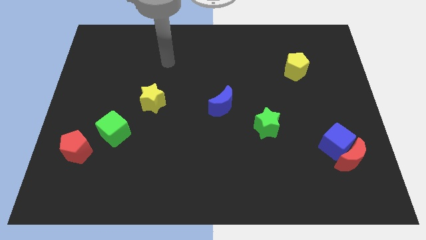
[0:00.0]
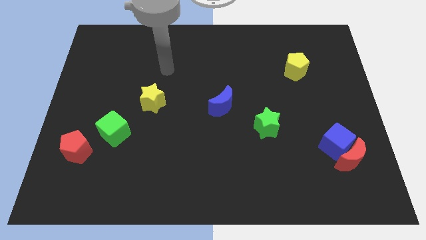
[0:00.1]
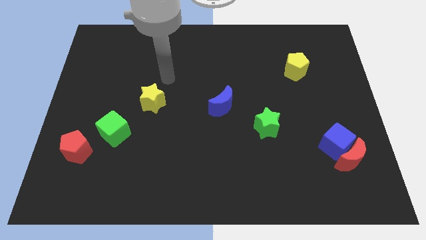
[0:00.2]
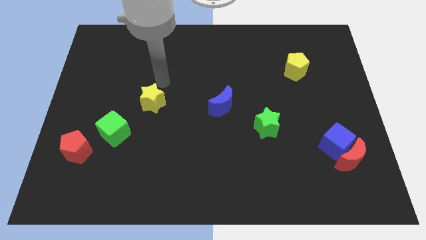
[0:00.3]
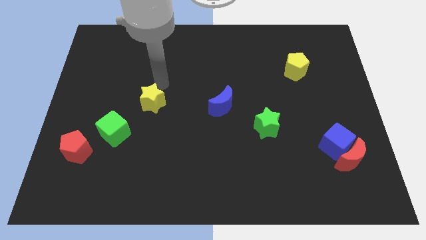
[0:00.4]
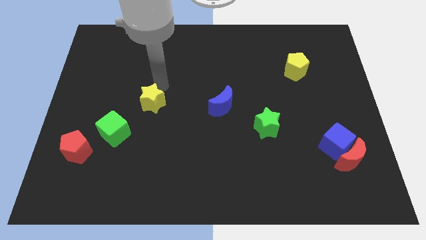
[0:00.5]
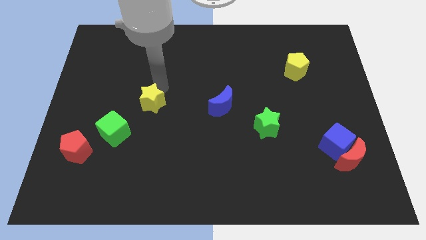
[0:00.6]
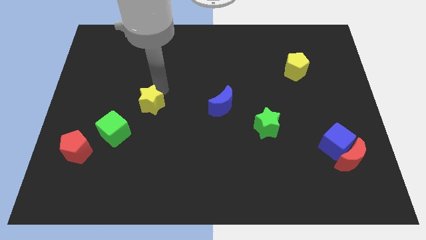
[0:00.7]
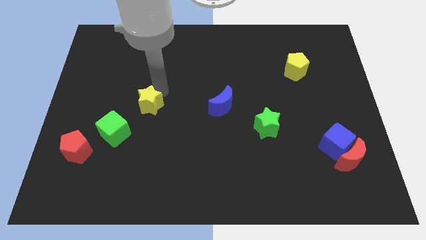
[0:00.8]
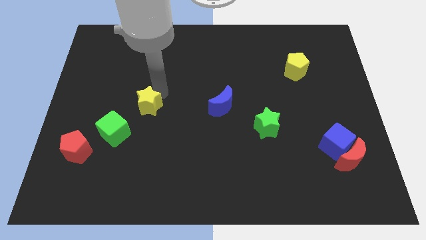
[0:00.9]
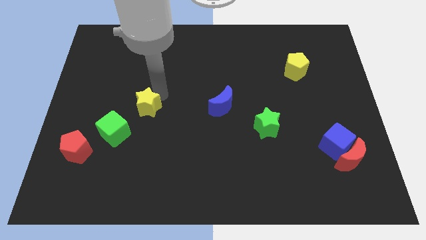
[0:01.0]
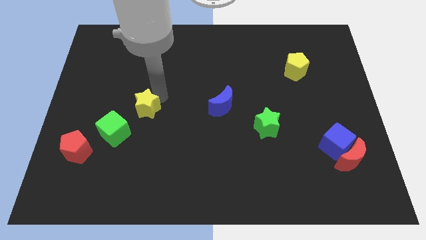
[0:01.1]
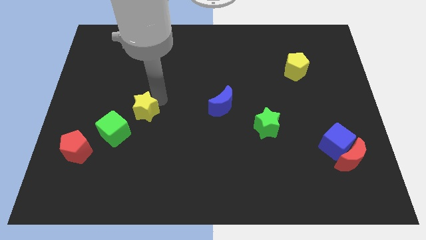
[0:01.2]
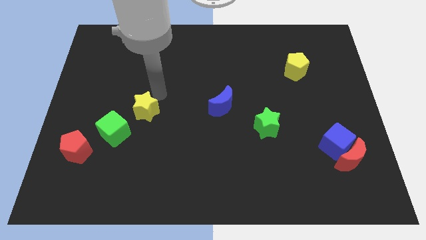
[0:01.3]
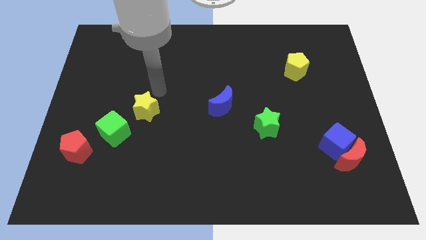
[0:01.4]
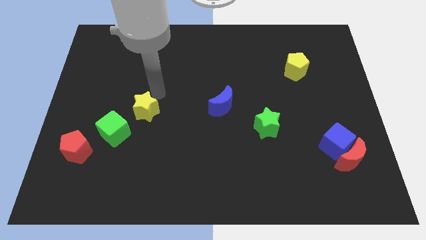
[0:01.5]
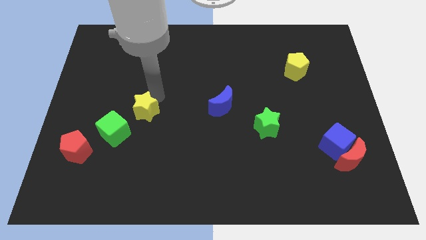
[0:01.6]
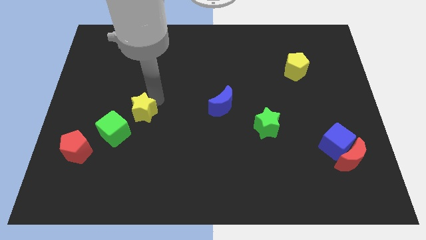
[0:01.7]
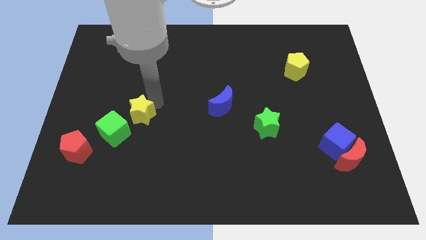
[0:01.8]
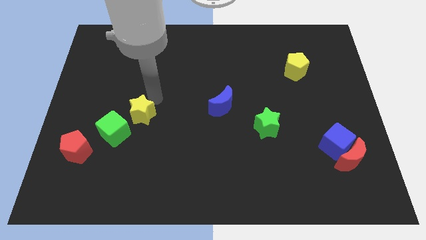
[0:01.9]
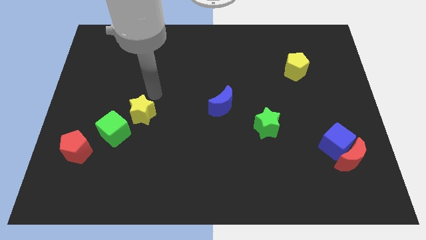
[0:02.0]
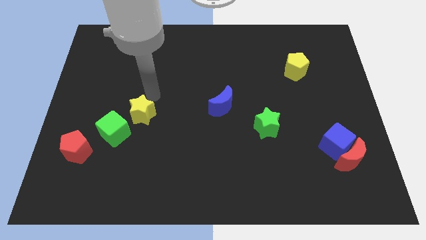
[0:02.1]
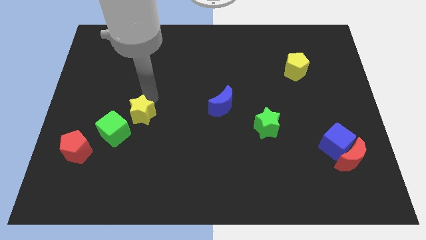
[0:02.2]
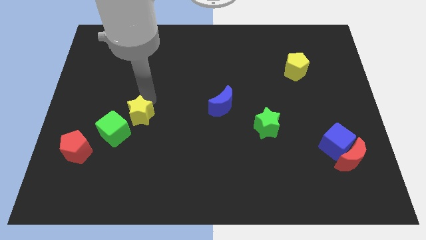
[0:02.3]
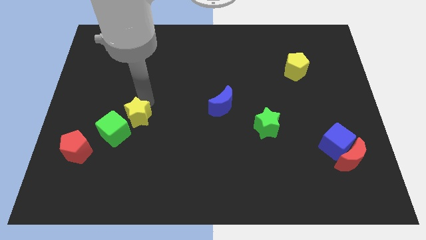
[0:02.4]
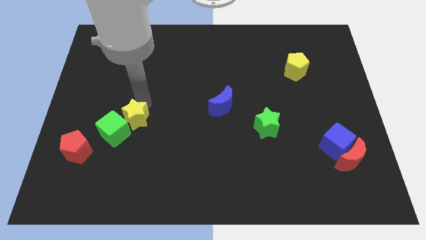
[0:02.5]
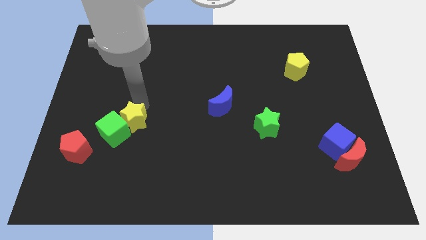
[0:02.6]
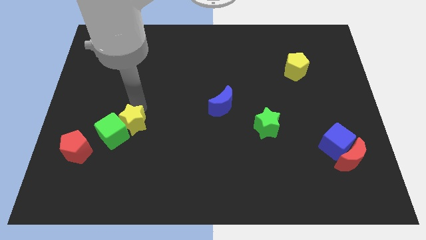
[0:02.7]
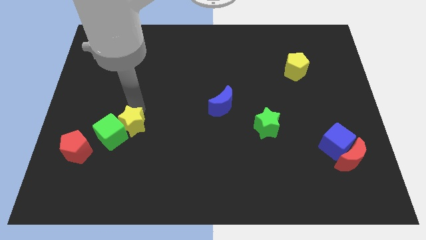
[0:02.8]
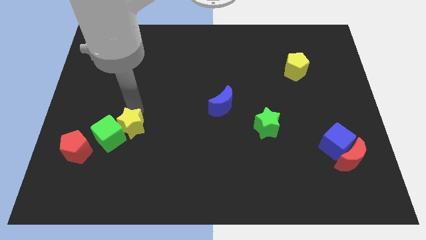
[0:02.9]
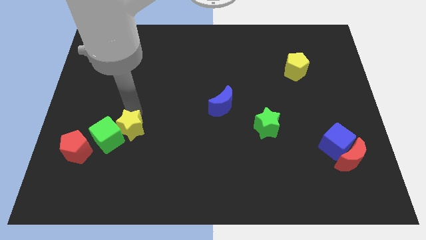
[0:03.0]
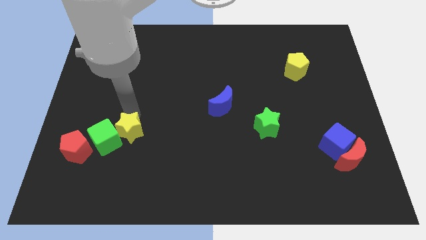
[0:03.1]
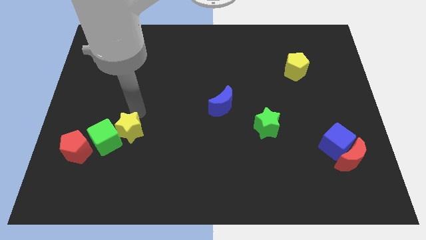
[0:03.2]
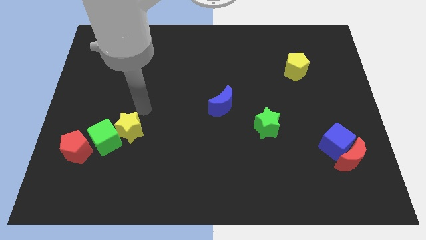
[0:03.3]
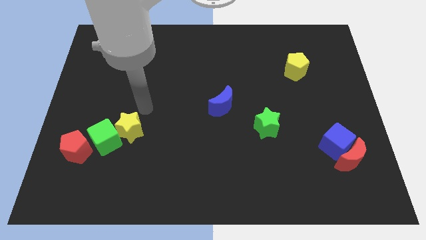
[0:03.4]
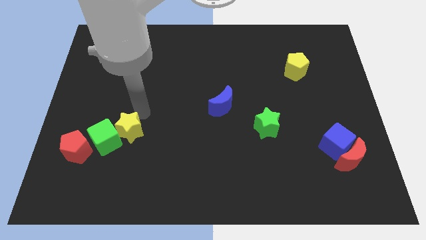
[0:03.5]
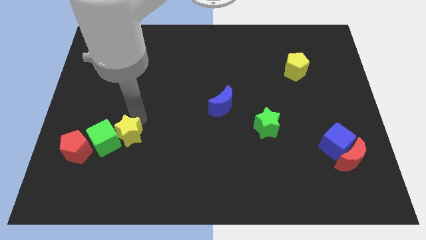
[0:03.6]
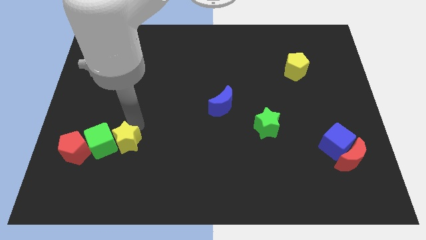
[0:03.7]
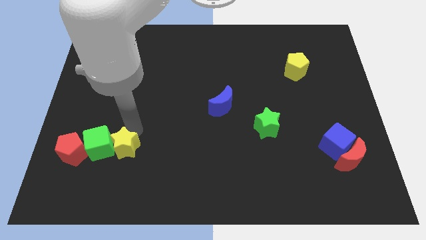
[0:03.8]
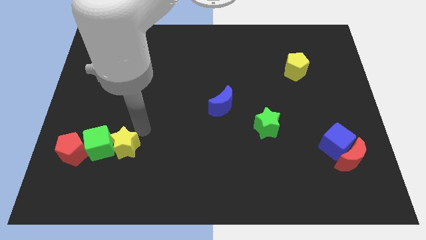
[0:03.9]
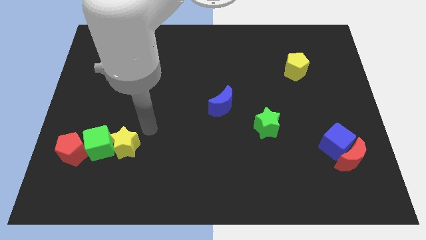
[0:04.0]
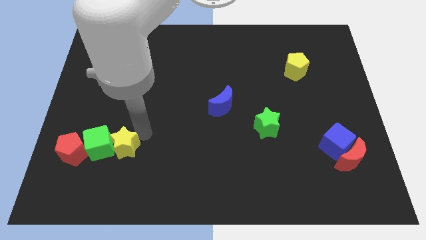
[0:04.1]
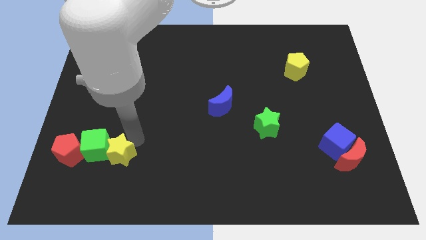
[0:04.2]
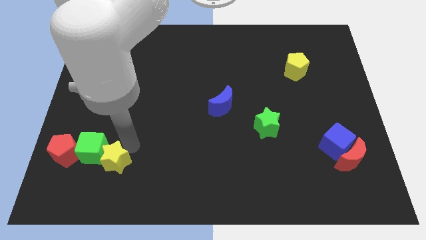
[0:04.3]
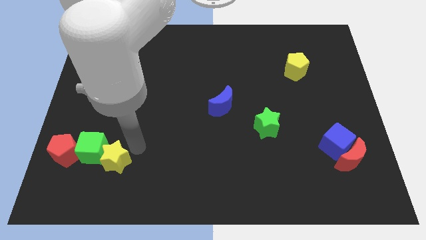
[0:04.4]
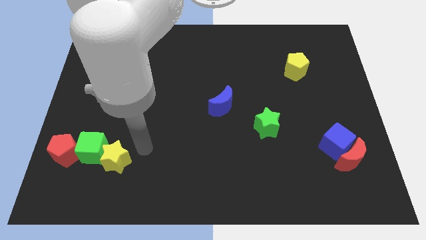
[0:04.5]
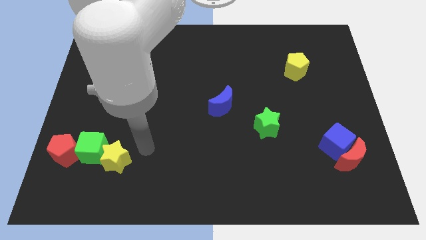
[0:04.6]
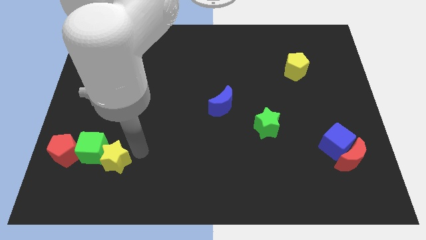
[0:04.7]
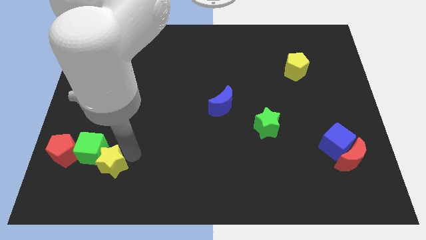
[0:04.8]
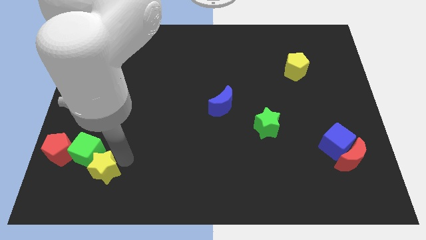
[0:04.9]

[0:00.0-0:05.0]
push the yellow star diagonally down and to the right of the red pentagon

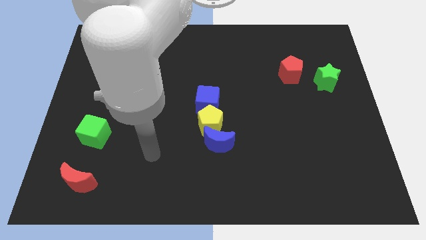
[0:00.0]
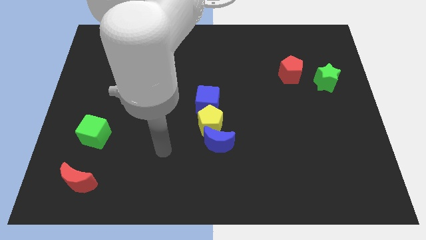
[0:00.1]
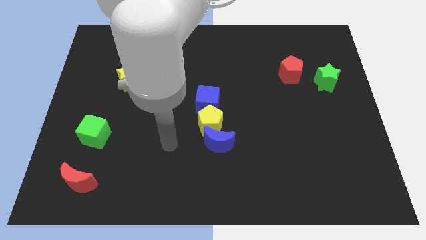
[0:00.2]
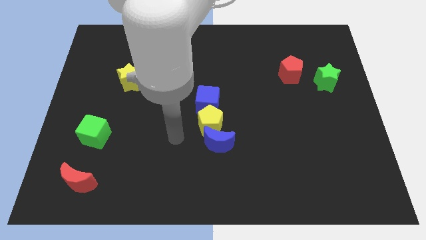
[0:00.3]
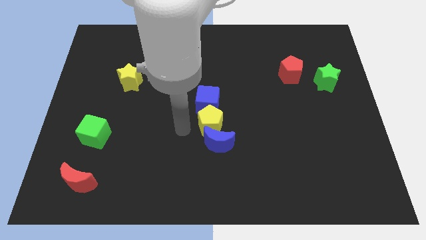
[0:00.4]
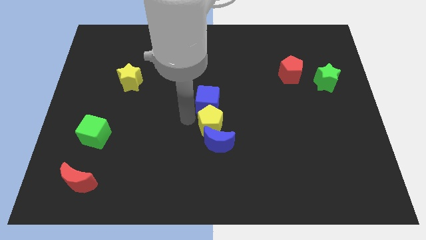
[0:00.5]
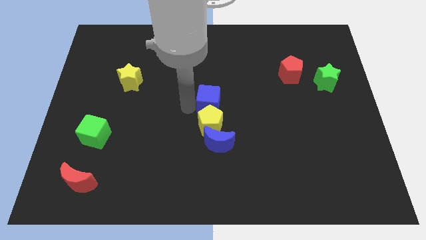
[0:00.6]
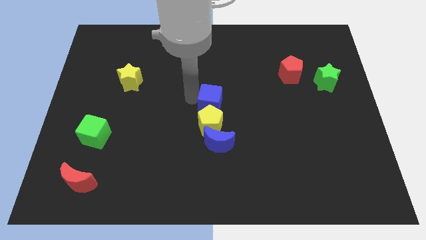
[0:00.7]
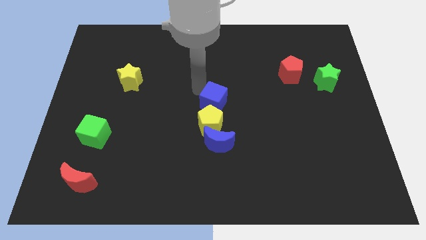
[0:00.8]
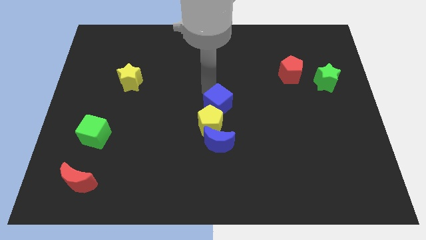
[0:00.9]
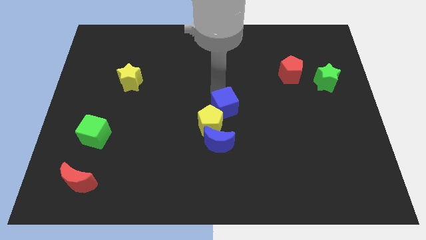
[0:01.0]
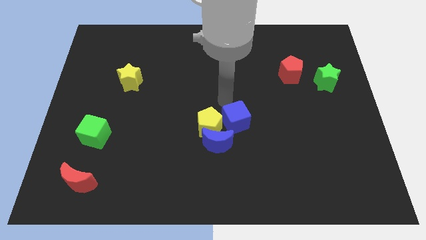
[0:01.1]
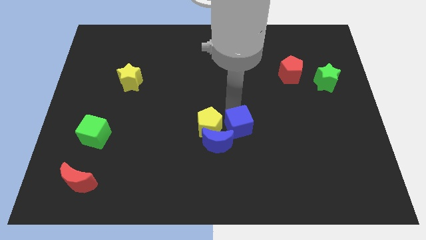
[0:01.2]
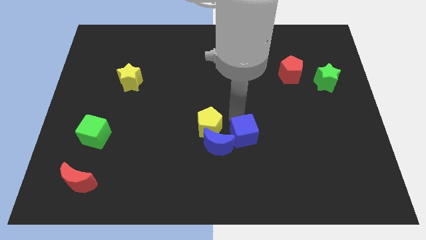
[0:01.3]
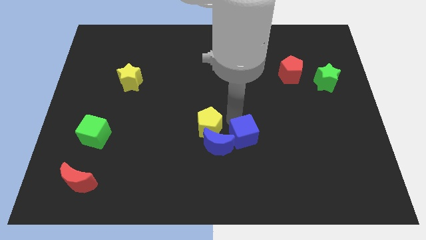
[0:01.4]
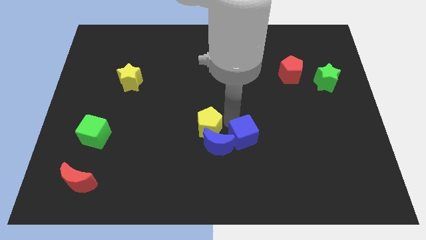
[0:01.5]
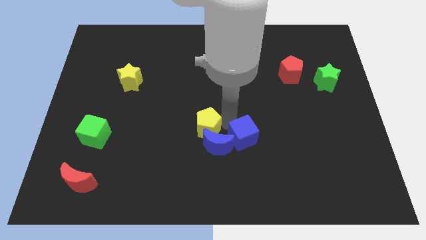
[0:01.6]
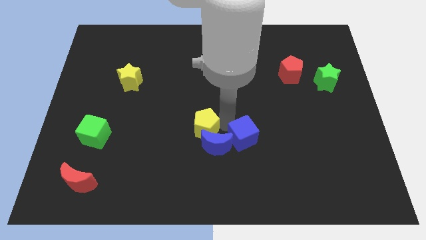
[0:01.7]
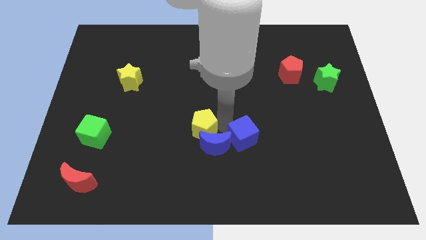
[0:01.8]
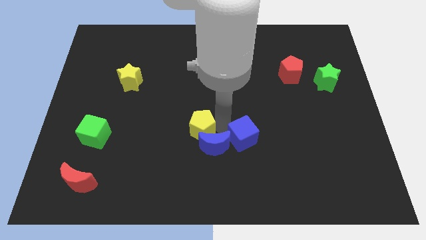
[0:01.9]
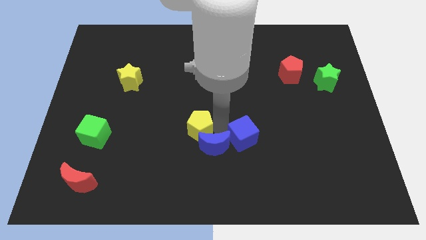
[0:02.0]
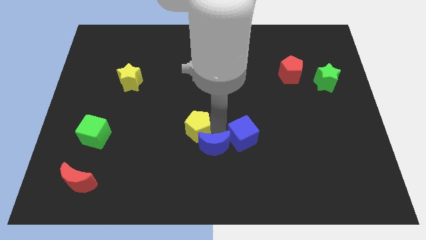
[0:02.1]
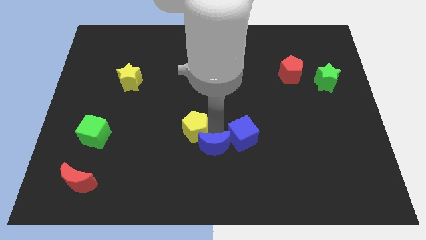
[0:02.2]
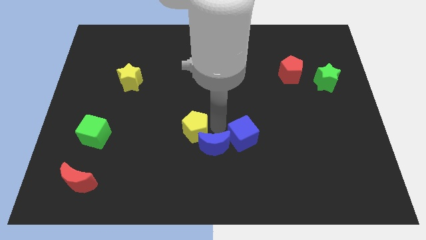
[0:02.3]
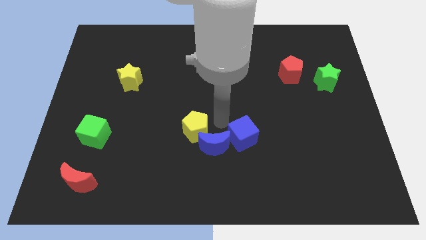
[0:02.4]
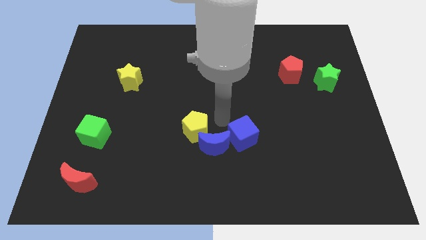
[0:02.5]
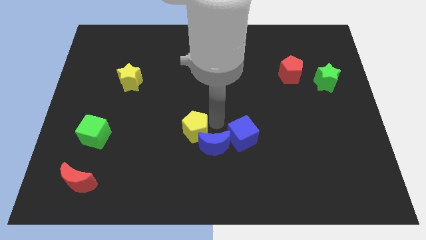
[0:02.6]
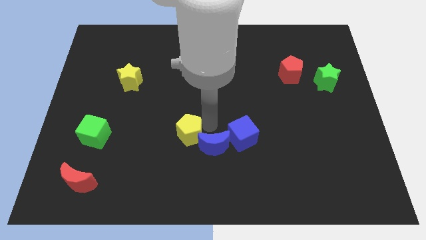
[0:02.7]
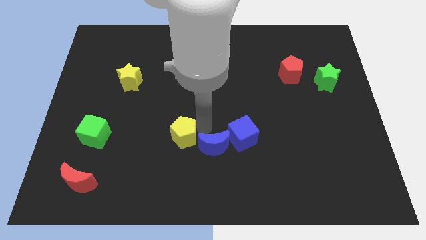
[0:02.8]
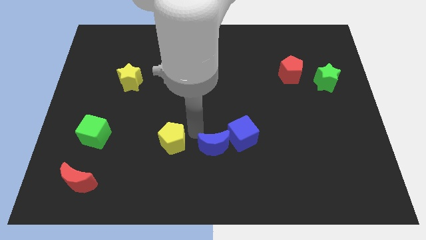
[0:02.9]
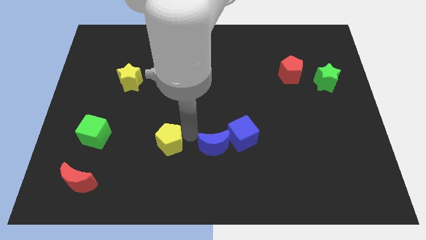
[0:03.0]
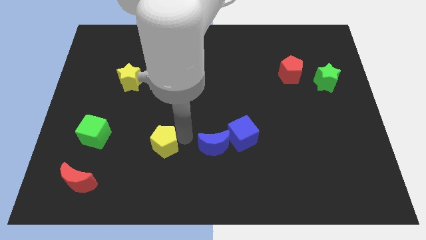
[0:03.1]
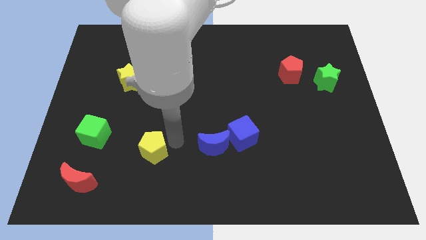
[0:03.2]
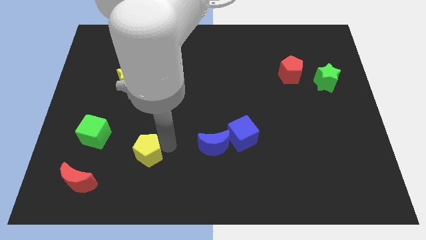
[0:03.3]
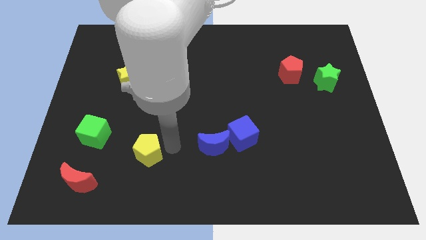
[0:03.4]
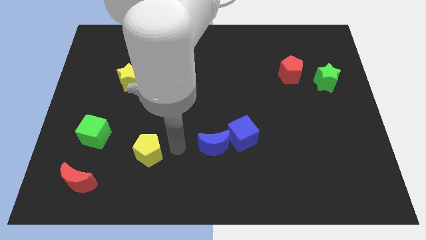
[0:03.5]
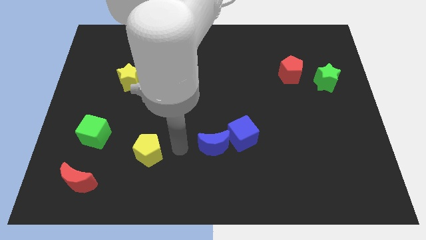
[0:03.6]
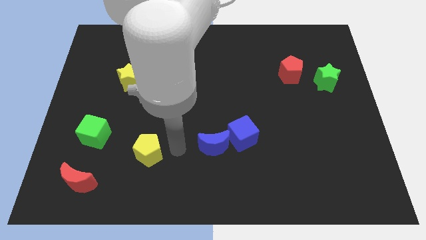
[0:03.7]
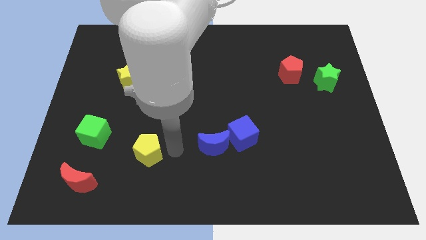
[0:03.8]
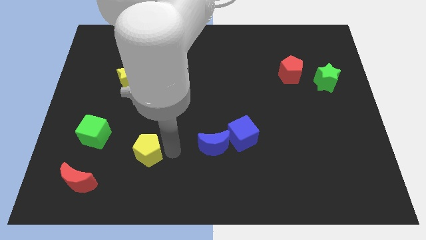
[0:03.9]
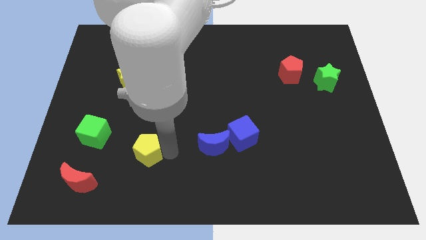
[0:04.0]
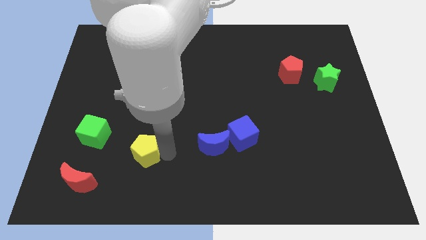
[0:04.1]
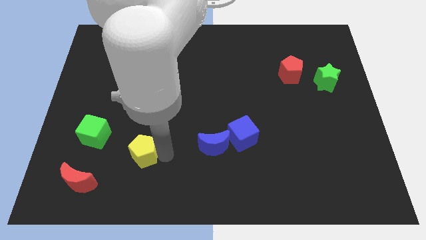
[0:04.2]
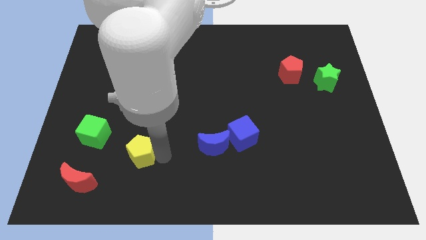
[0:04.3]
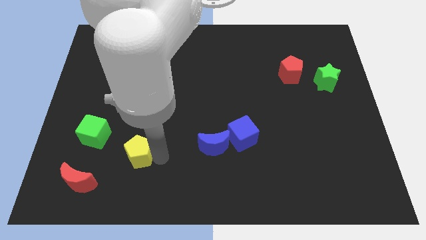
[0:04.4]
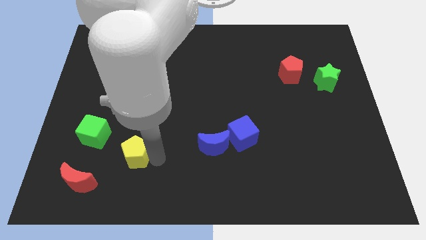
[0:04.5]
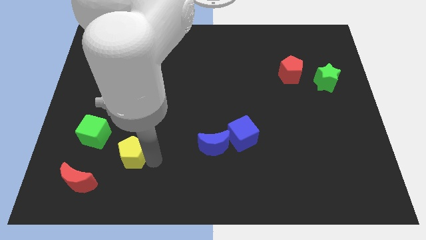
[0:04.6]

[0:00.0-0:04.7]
put the yellow pentagon diagonally up and to the right of the red moon
